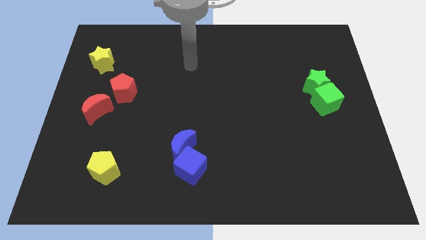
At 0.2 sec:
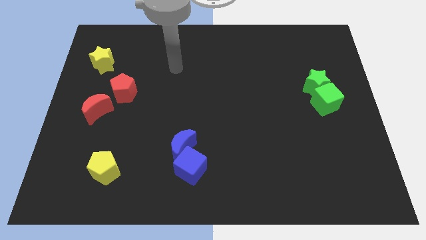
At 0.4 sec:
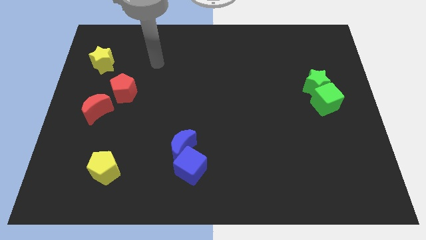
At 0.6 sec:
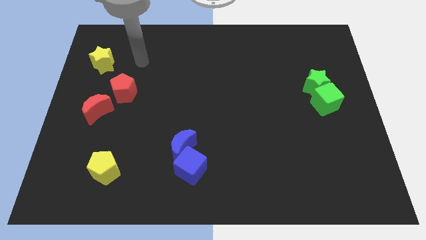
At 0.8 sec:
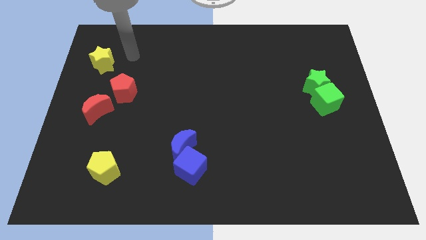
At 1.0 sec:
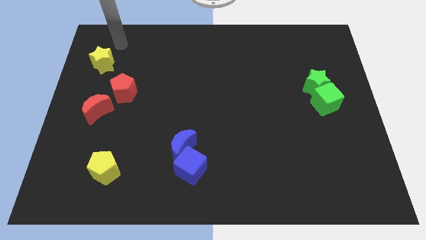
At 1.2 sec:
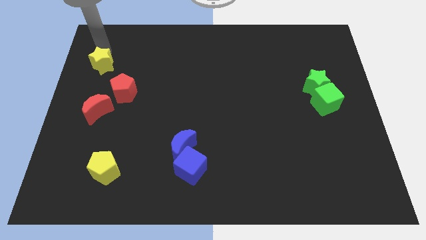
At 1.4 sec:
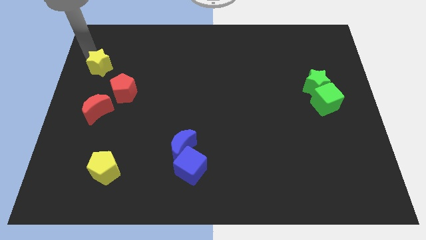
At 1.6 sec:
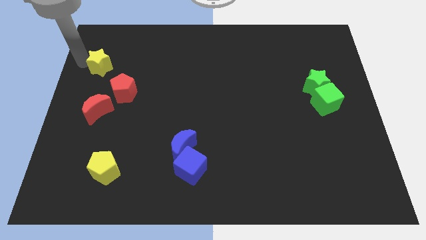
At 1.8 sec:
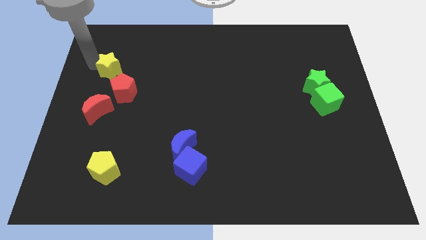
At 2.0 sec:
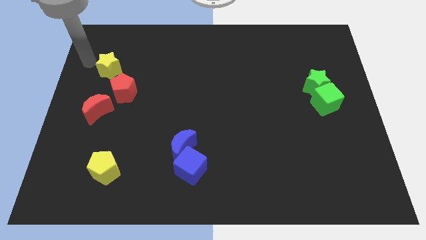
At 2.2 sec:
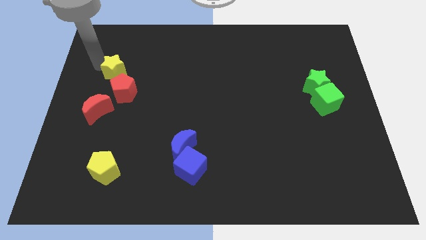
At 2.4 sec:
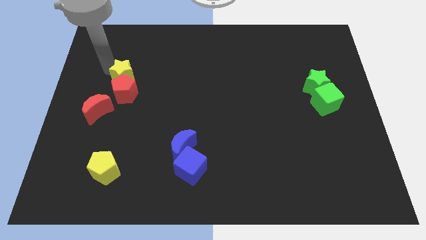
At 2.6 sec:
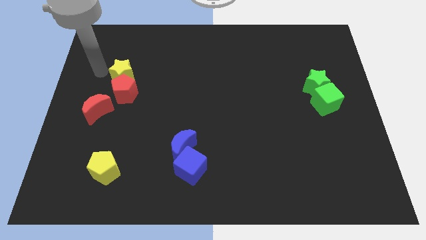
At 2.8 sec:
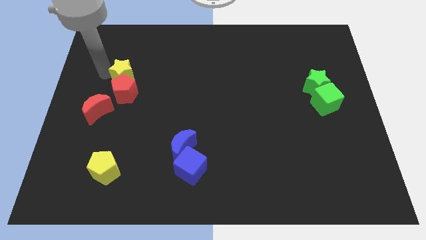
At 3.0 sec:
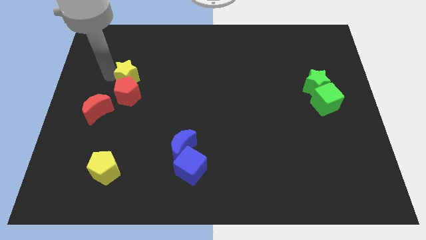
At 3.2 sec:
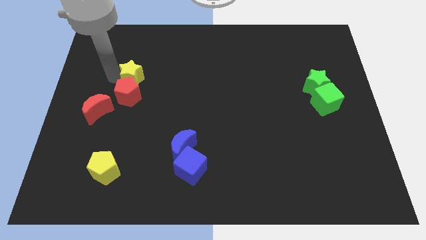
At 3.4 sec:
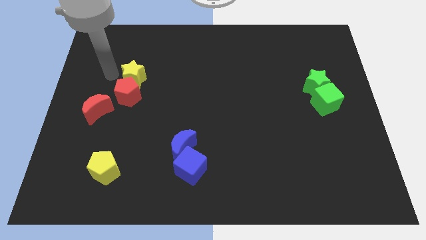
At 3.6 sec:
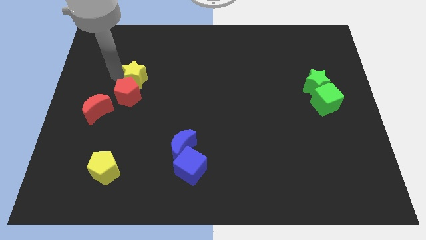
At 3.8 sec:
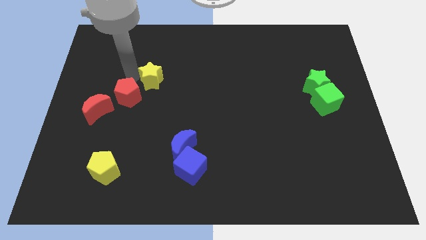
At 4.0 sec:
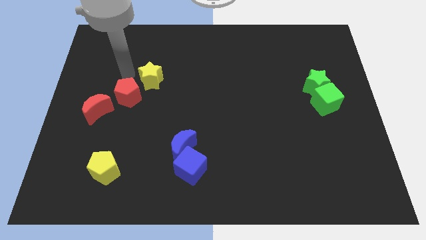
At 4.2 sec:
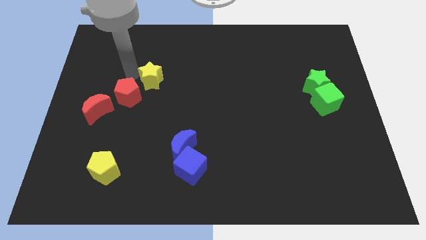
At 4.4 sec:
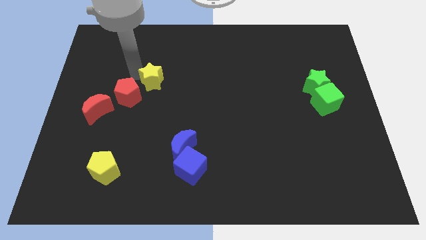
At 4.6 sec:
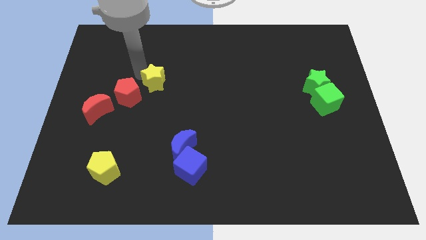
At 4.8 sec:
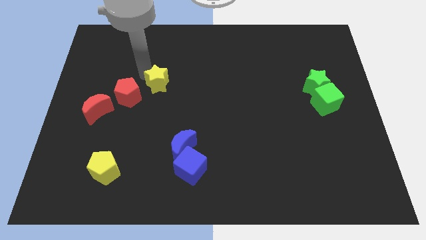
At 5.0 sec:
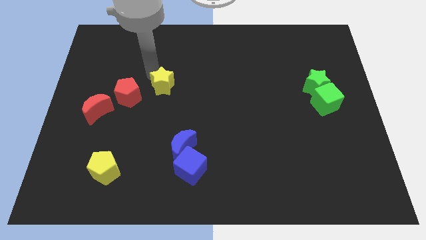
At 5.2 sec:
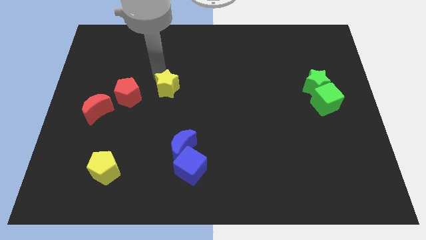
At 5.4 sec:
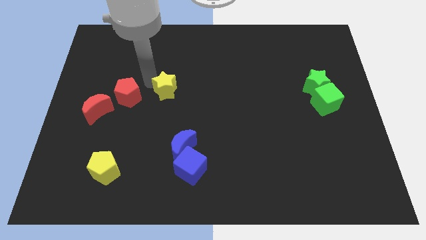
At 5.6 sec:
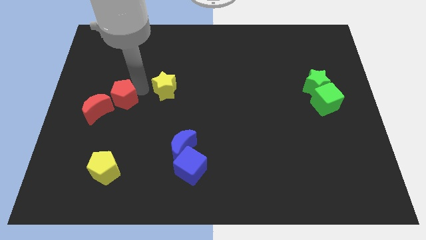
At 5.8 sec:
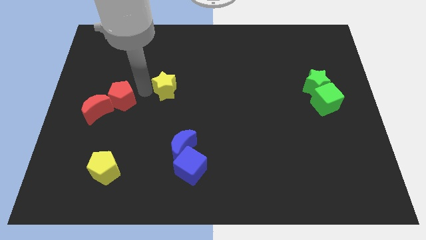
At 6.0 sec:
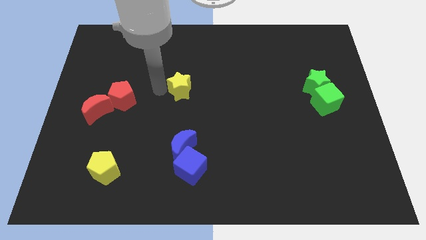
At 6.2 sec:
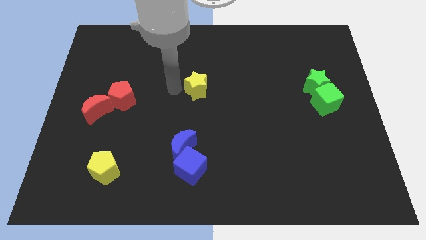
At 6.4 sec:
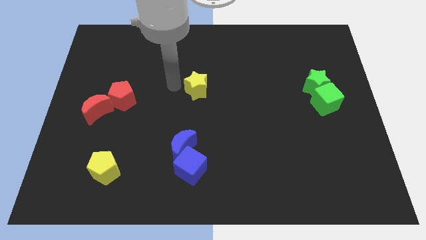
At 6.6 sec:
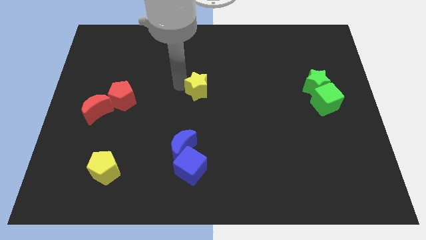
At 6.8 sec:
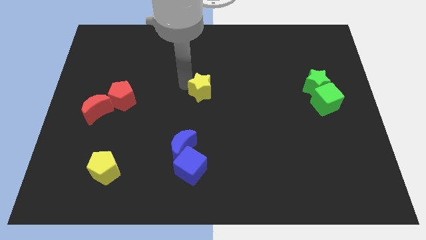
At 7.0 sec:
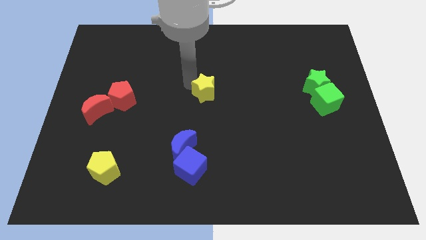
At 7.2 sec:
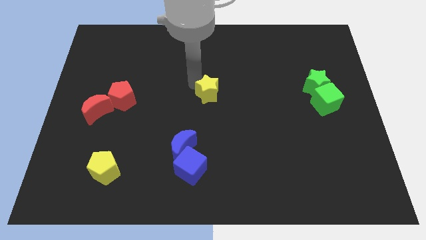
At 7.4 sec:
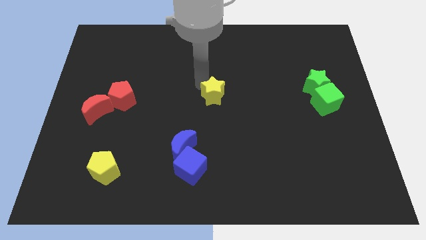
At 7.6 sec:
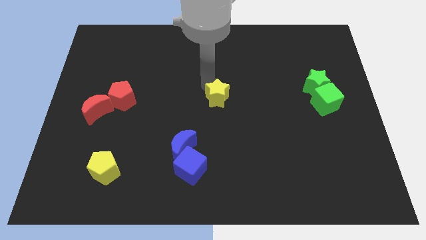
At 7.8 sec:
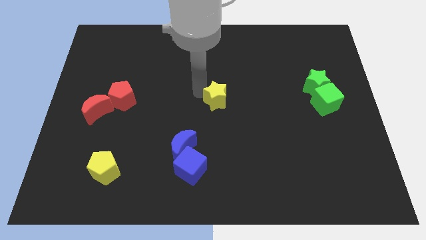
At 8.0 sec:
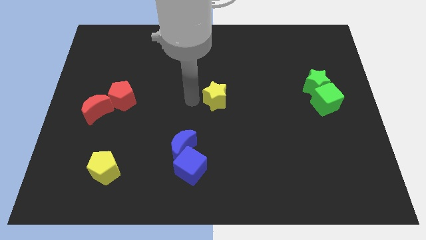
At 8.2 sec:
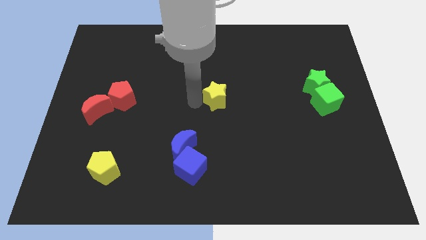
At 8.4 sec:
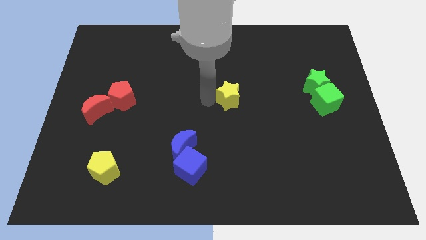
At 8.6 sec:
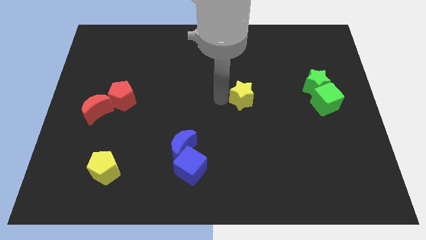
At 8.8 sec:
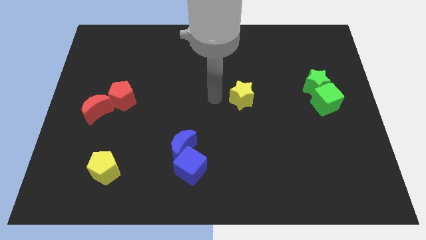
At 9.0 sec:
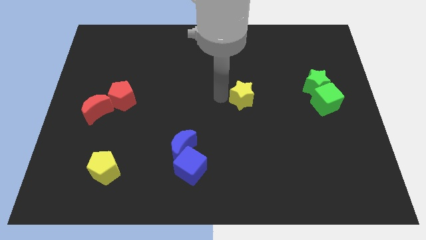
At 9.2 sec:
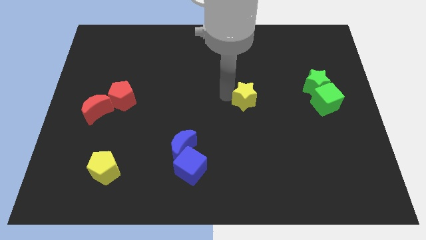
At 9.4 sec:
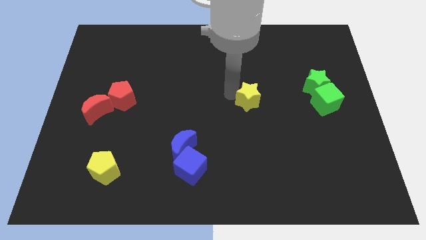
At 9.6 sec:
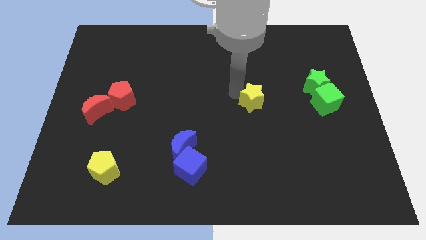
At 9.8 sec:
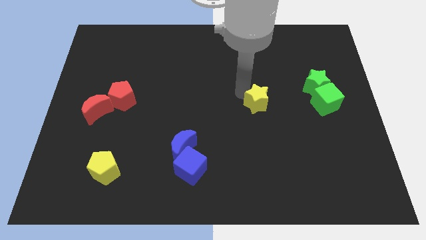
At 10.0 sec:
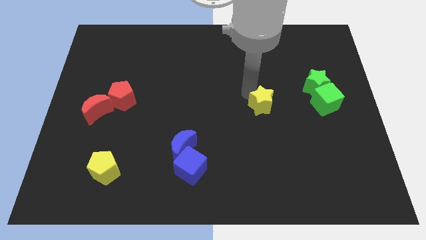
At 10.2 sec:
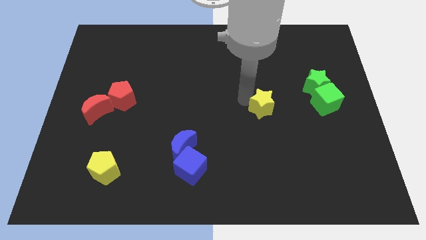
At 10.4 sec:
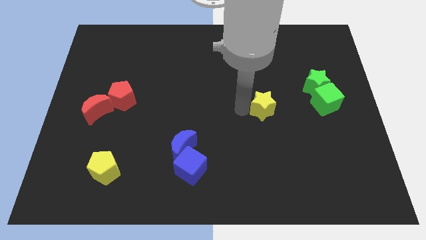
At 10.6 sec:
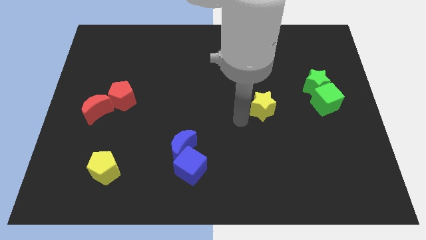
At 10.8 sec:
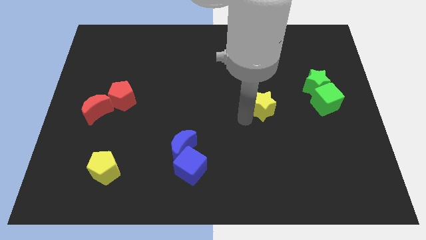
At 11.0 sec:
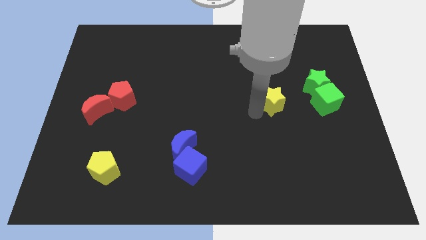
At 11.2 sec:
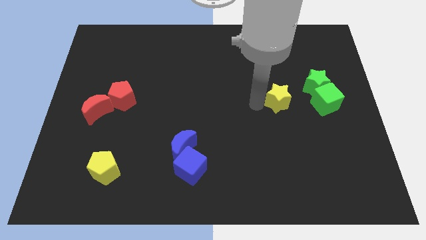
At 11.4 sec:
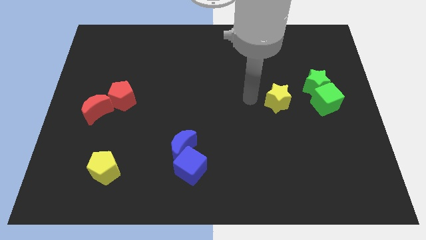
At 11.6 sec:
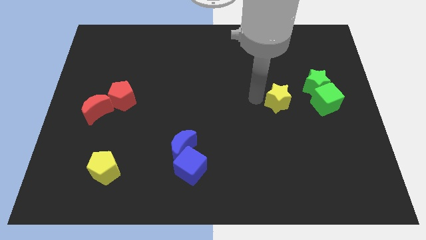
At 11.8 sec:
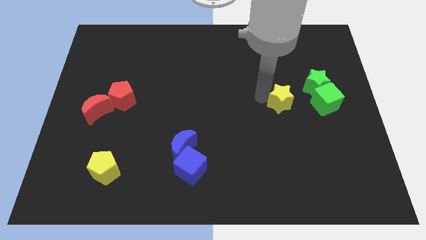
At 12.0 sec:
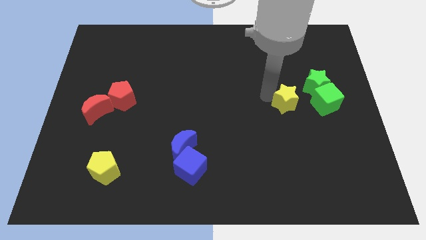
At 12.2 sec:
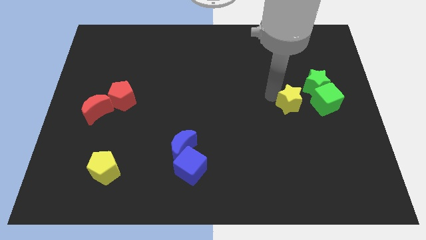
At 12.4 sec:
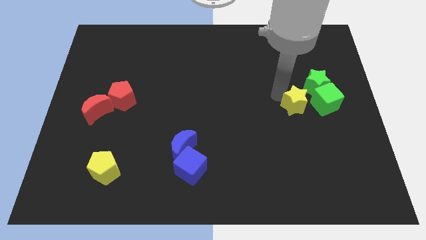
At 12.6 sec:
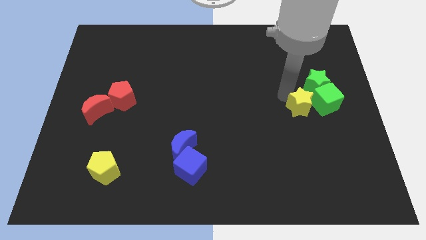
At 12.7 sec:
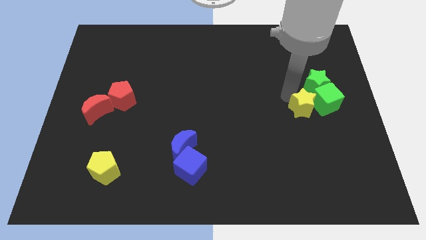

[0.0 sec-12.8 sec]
put the yellow star to the green cube

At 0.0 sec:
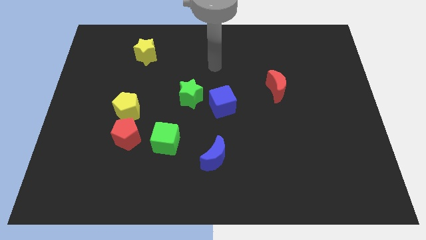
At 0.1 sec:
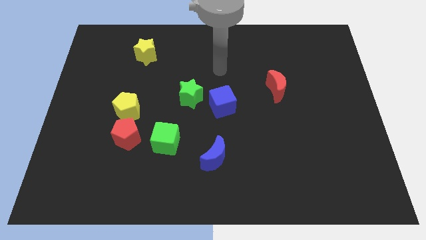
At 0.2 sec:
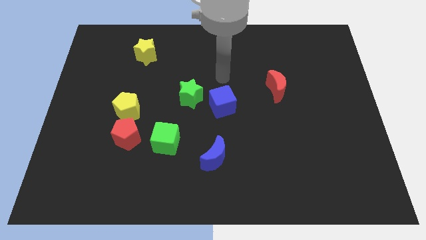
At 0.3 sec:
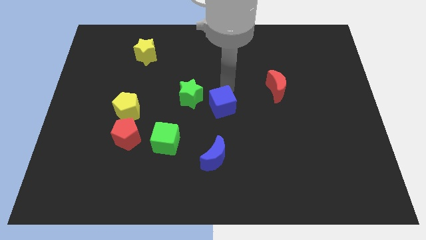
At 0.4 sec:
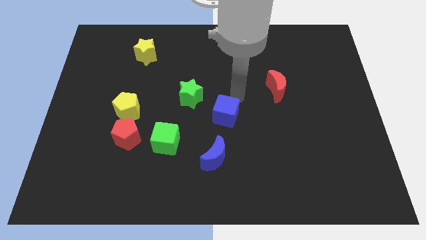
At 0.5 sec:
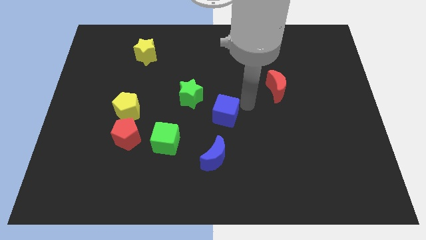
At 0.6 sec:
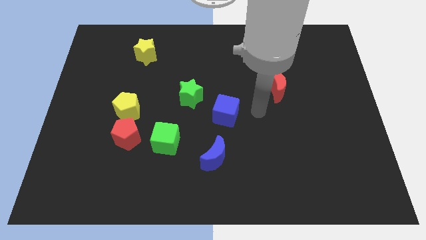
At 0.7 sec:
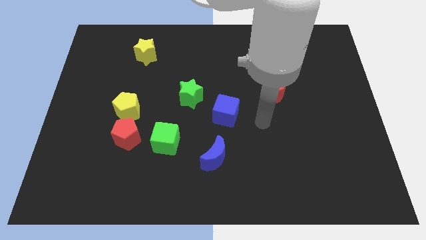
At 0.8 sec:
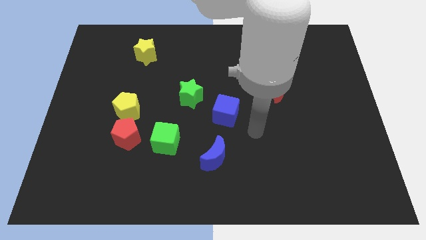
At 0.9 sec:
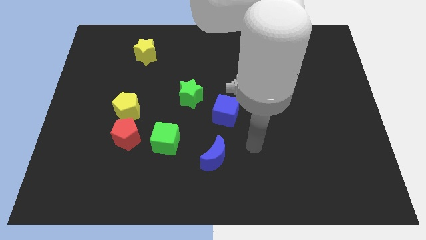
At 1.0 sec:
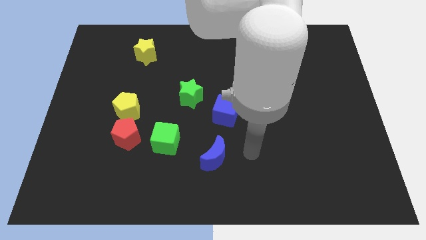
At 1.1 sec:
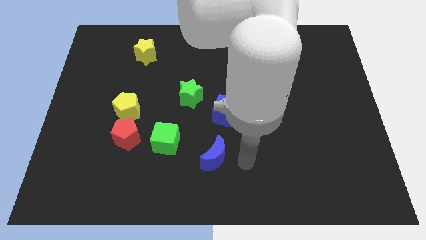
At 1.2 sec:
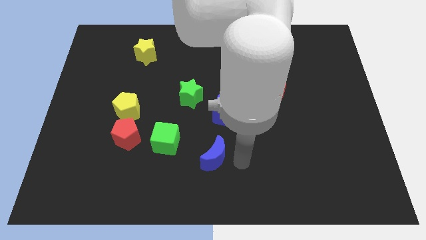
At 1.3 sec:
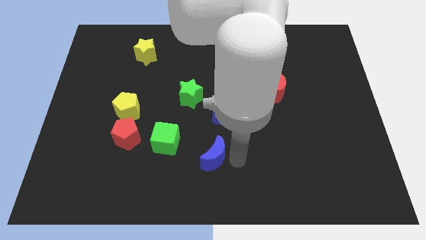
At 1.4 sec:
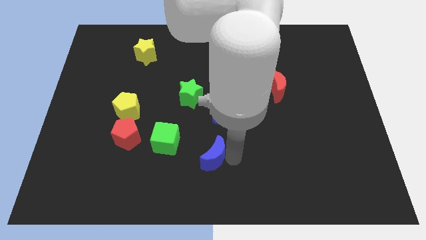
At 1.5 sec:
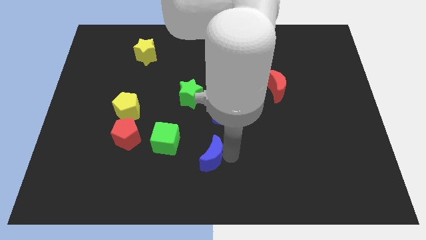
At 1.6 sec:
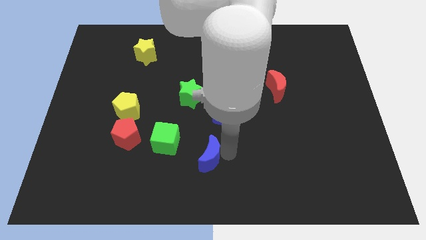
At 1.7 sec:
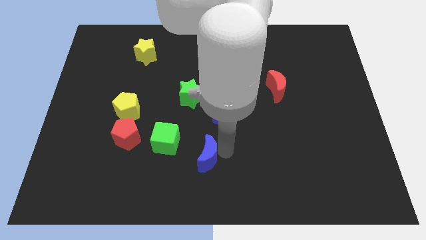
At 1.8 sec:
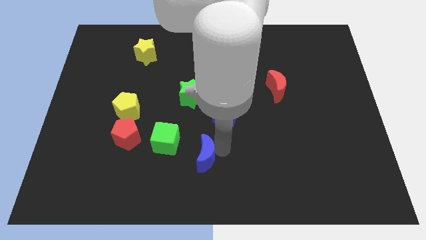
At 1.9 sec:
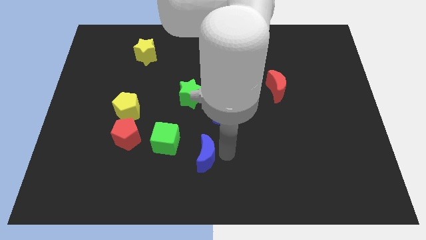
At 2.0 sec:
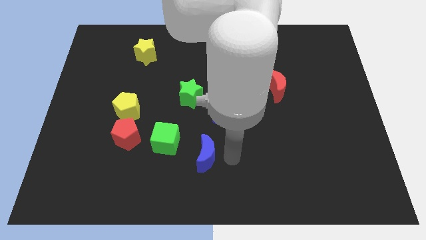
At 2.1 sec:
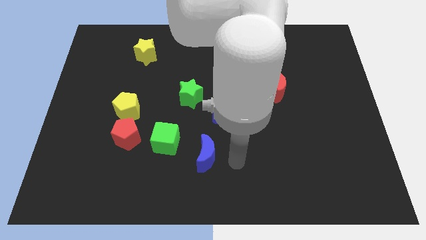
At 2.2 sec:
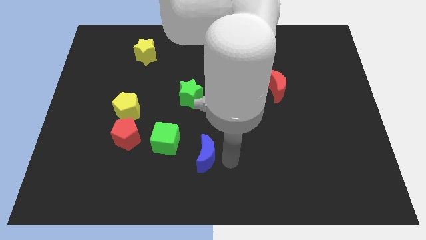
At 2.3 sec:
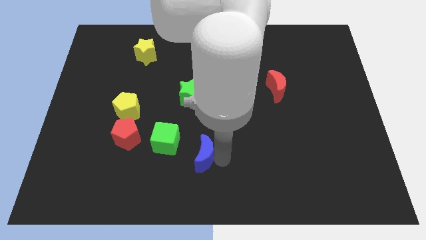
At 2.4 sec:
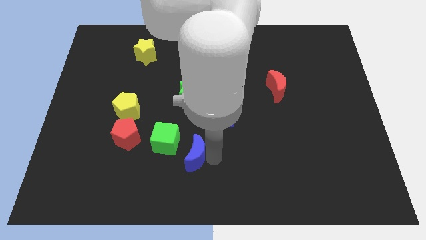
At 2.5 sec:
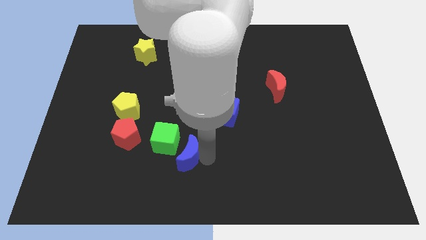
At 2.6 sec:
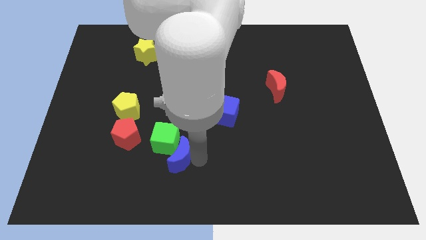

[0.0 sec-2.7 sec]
put the blue moon towards the green cube
